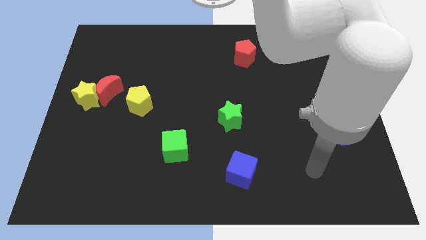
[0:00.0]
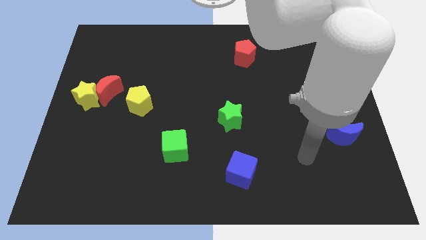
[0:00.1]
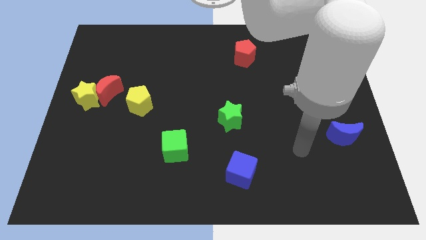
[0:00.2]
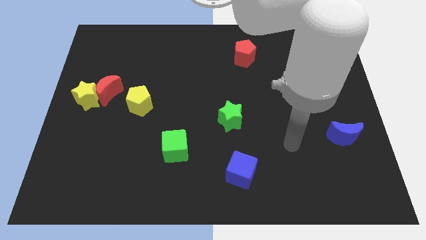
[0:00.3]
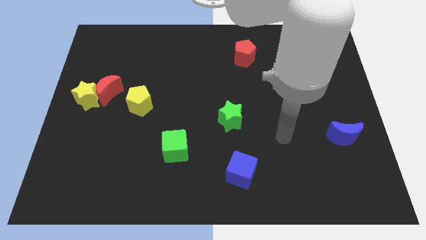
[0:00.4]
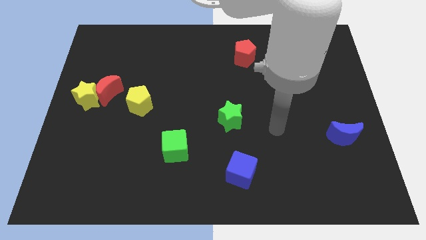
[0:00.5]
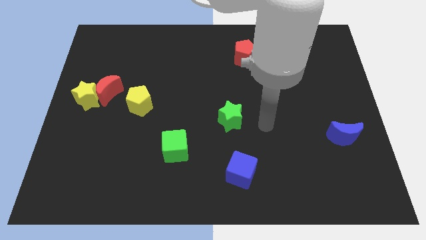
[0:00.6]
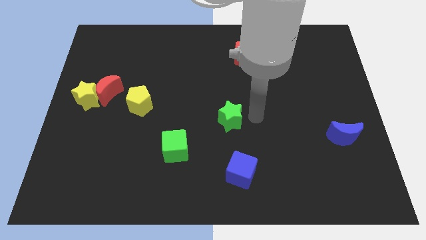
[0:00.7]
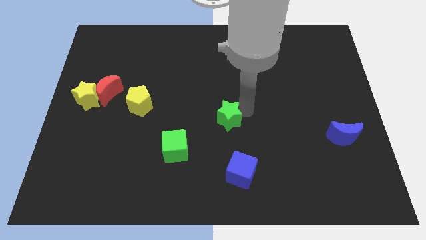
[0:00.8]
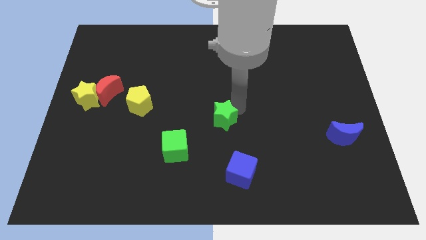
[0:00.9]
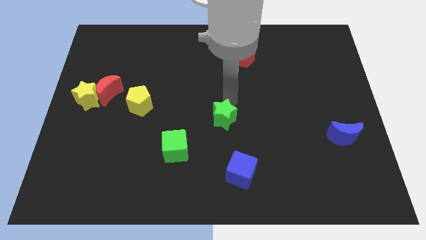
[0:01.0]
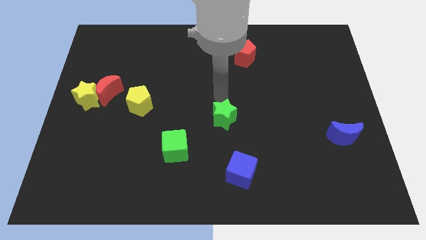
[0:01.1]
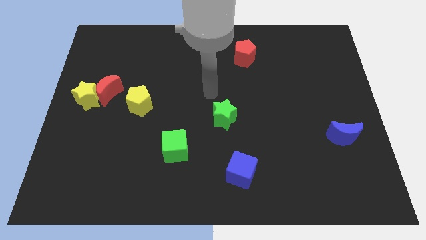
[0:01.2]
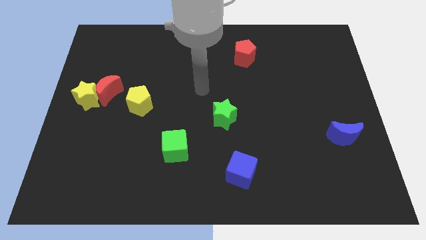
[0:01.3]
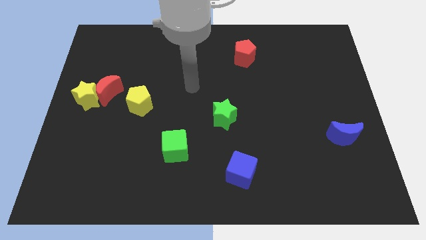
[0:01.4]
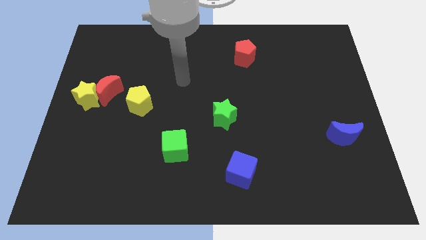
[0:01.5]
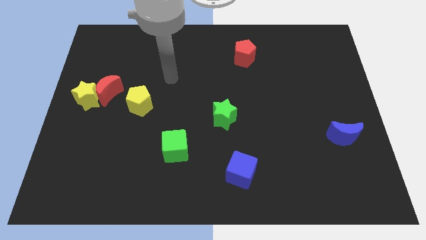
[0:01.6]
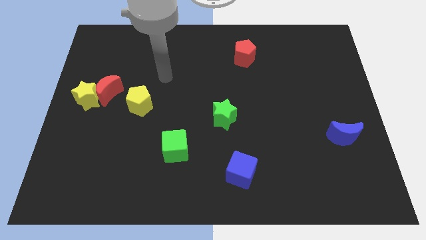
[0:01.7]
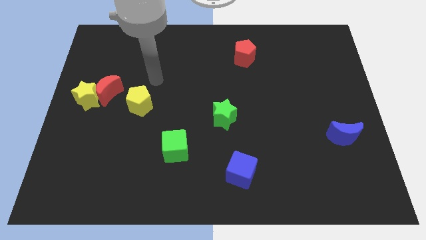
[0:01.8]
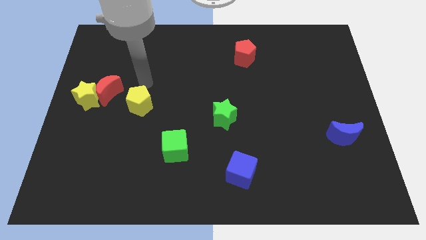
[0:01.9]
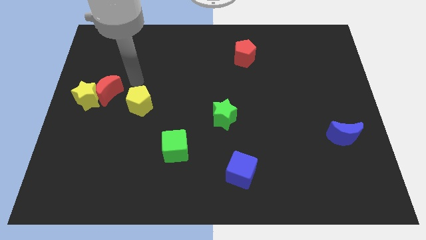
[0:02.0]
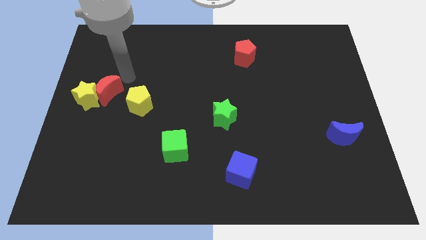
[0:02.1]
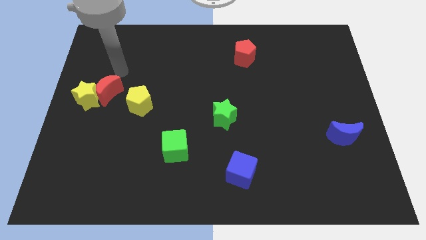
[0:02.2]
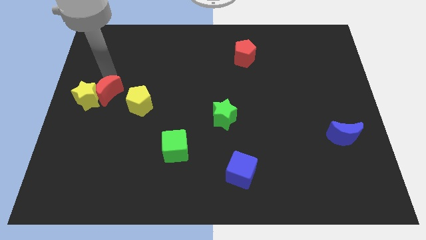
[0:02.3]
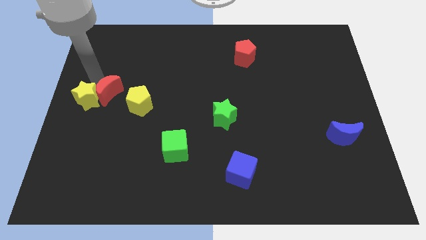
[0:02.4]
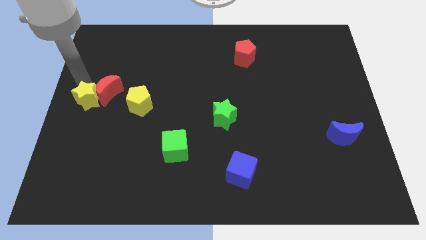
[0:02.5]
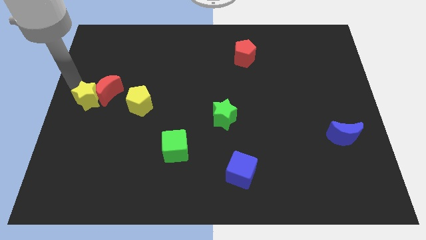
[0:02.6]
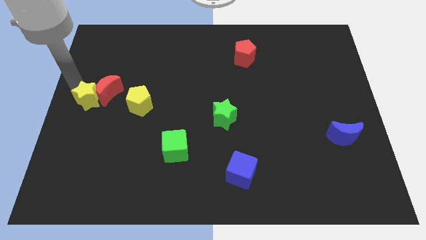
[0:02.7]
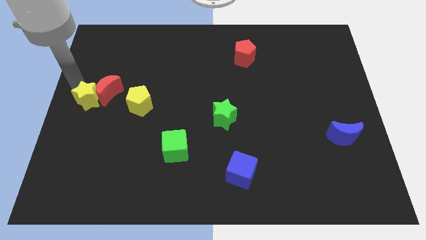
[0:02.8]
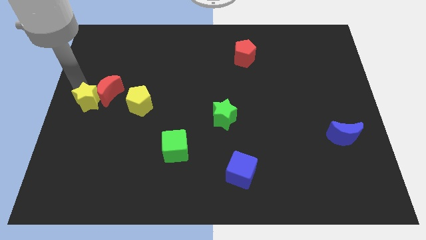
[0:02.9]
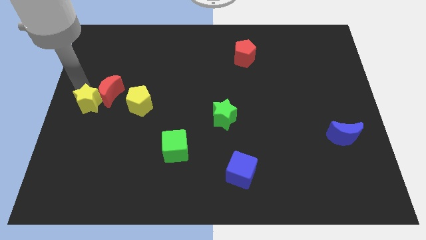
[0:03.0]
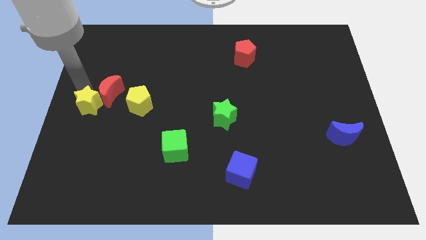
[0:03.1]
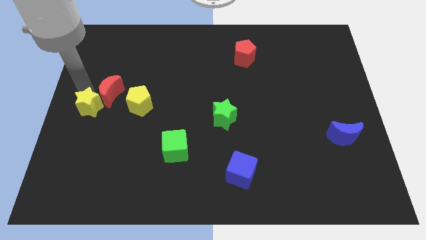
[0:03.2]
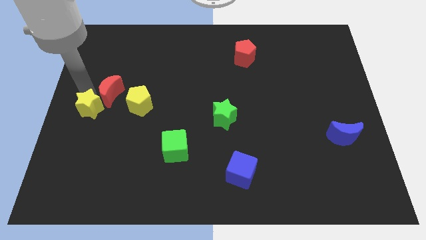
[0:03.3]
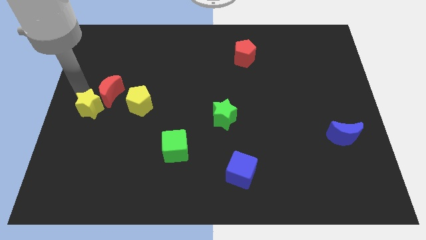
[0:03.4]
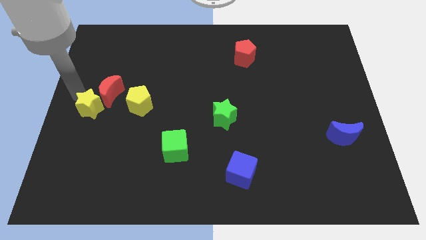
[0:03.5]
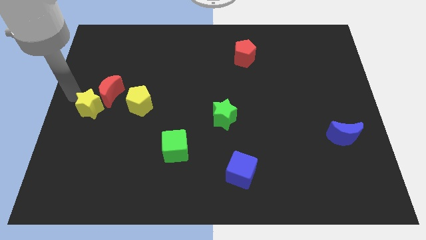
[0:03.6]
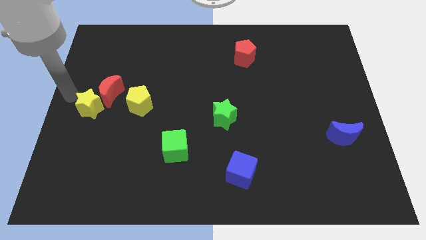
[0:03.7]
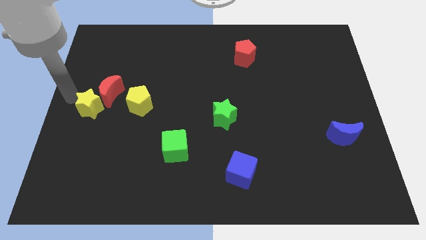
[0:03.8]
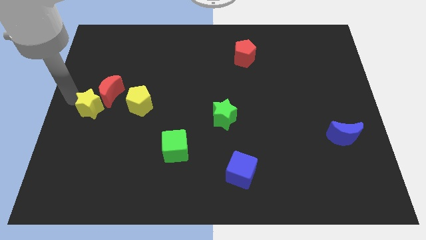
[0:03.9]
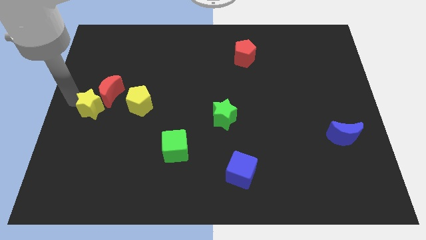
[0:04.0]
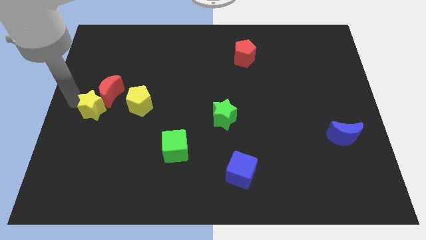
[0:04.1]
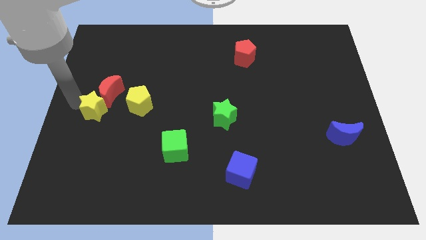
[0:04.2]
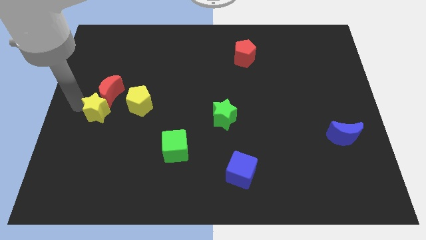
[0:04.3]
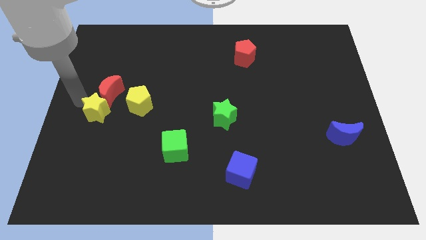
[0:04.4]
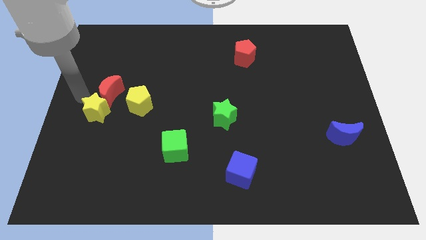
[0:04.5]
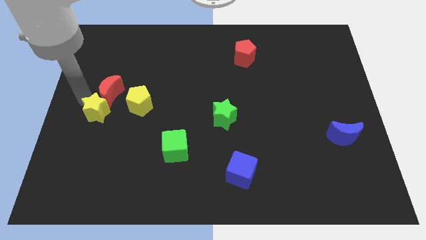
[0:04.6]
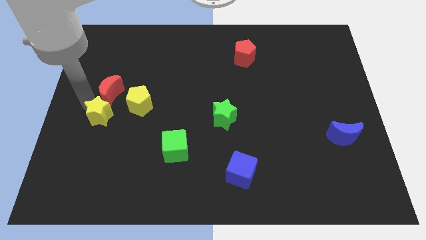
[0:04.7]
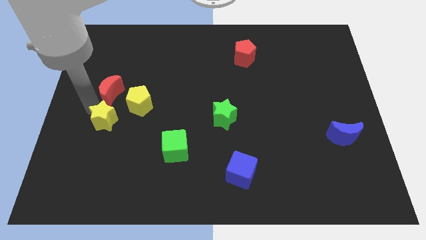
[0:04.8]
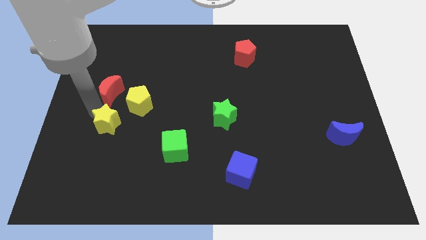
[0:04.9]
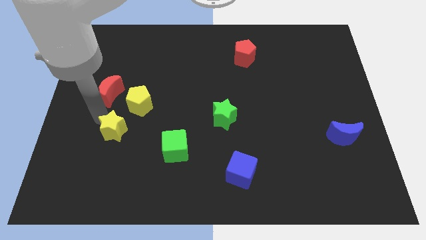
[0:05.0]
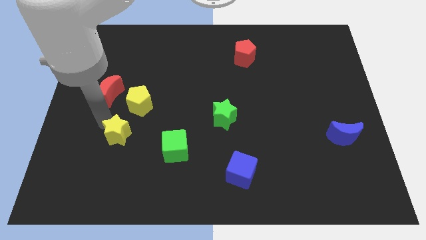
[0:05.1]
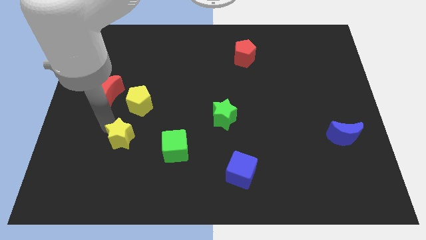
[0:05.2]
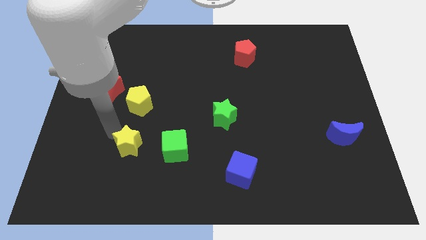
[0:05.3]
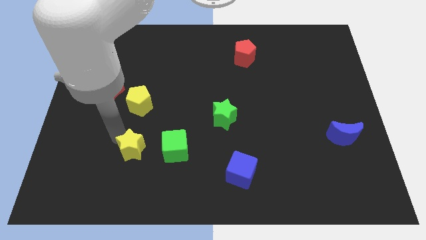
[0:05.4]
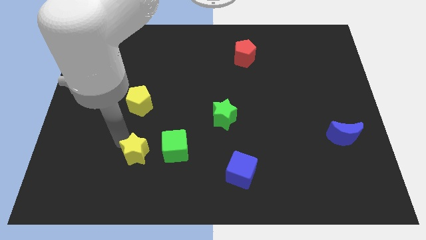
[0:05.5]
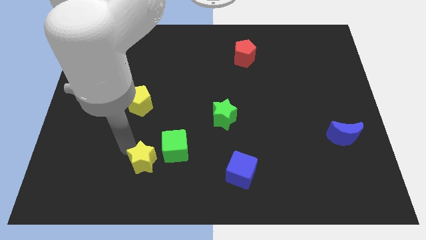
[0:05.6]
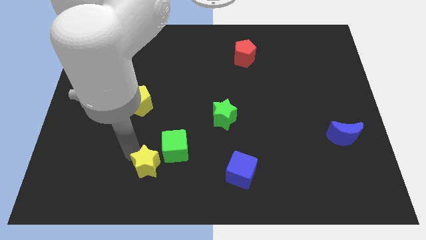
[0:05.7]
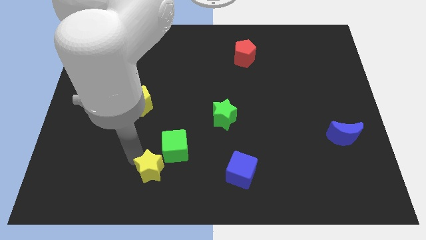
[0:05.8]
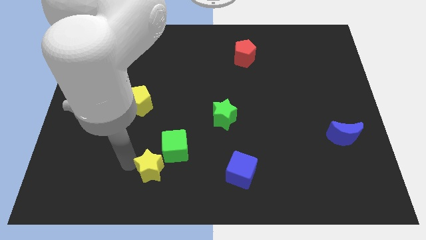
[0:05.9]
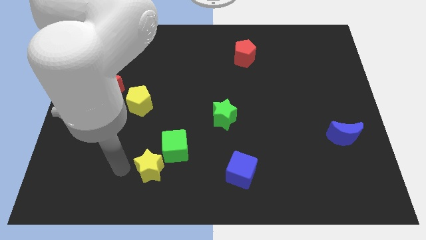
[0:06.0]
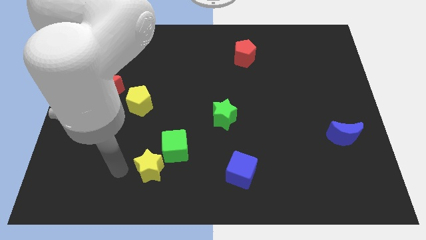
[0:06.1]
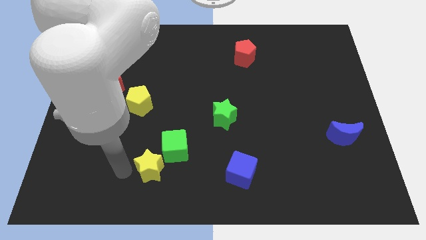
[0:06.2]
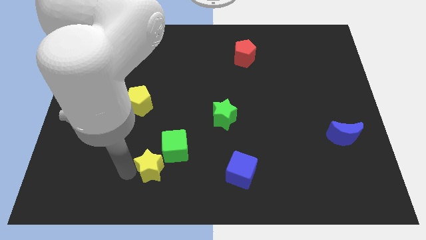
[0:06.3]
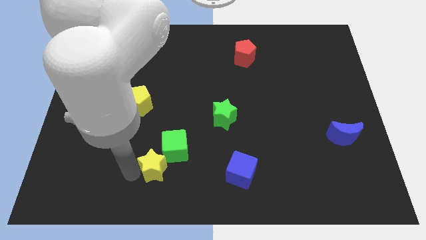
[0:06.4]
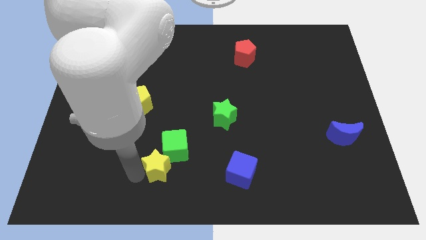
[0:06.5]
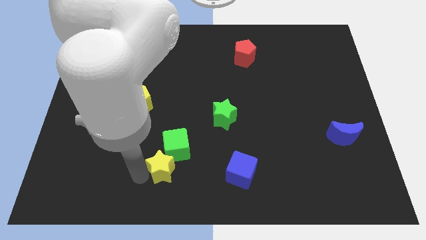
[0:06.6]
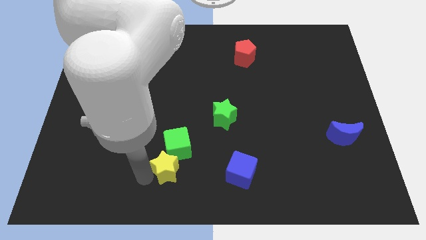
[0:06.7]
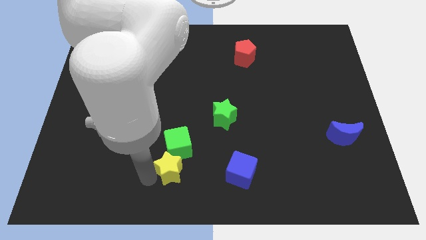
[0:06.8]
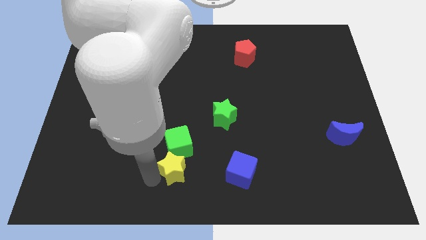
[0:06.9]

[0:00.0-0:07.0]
slide the yellow star to the bottom right side of the green cube

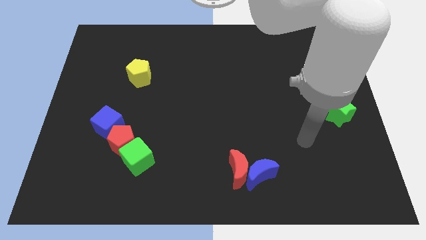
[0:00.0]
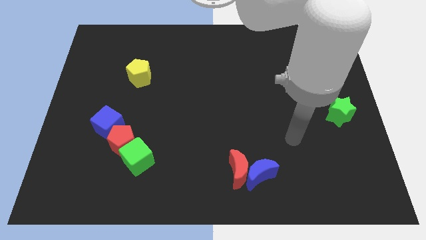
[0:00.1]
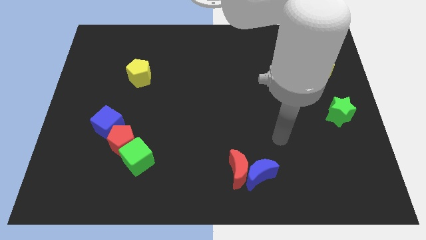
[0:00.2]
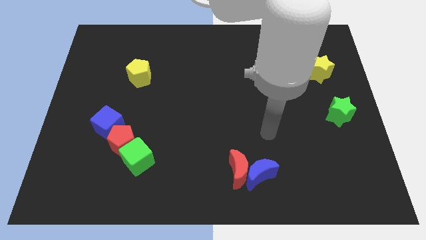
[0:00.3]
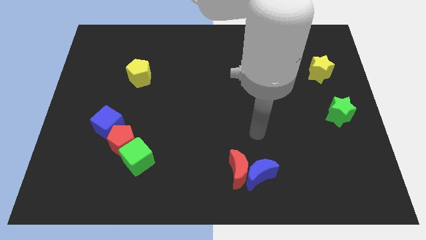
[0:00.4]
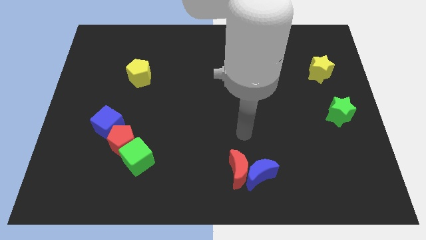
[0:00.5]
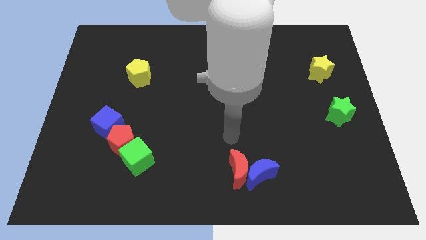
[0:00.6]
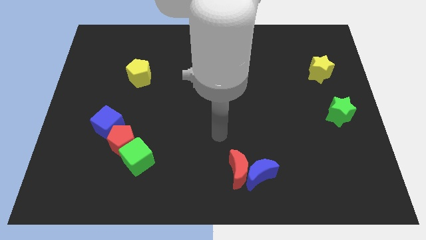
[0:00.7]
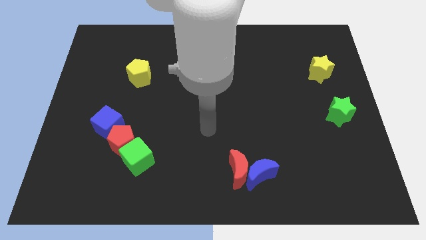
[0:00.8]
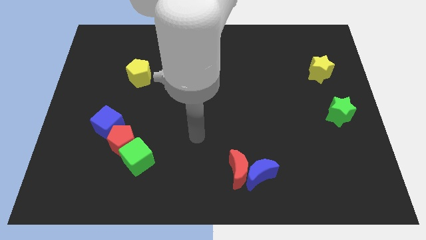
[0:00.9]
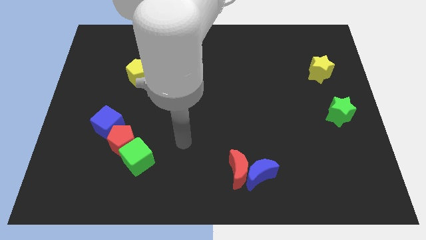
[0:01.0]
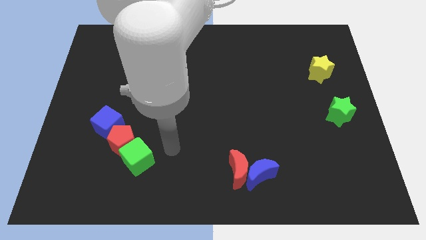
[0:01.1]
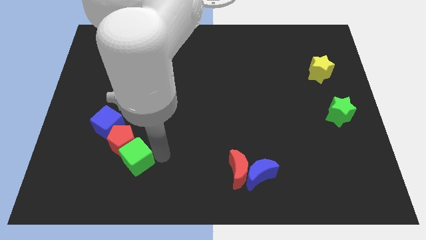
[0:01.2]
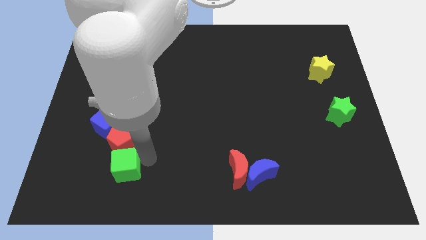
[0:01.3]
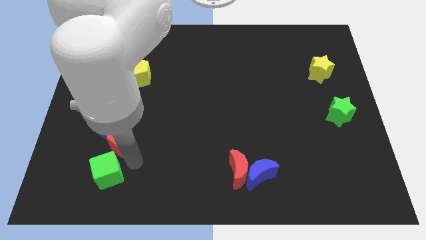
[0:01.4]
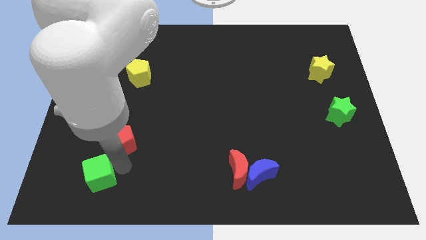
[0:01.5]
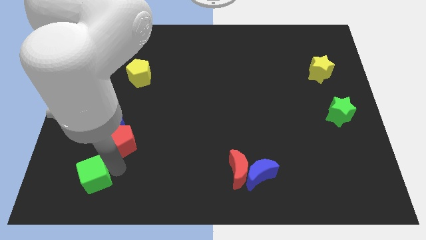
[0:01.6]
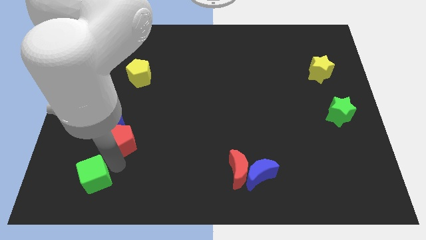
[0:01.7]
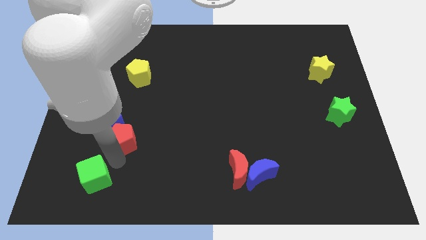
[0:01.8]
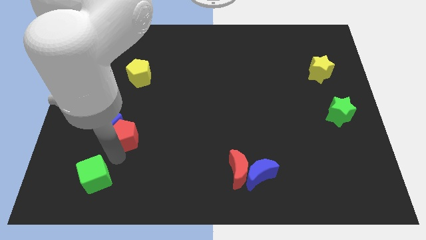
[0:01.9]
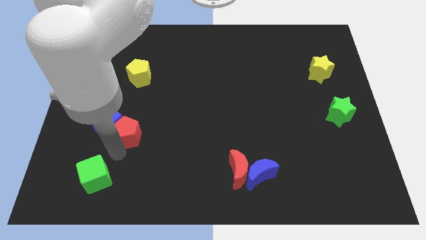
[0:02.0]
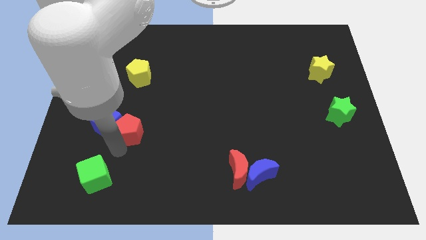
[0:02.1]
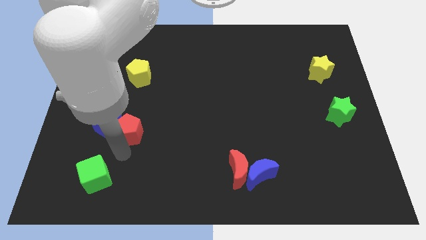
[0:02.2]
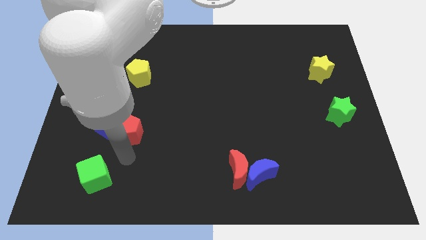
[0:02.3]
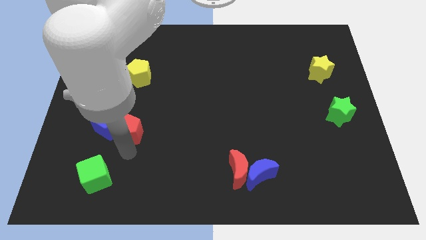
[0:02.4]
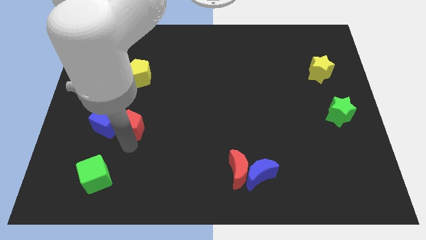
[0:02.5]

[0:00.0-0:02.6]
move the red pentagon to the bottom side of the yellow pentagon
